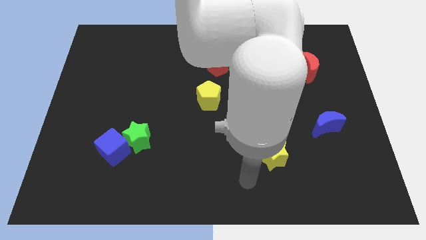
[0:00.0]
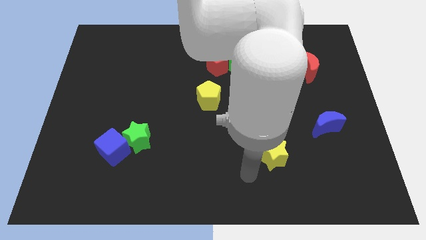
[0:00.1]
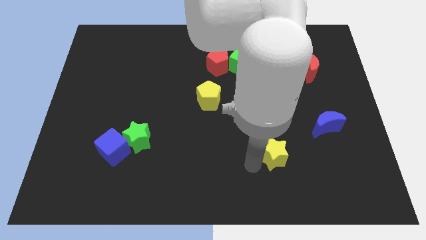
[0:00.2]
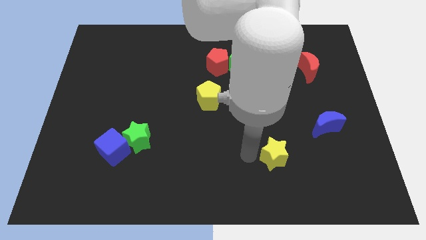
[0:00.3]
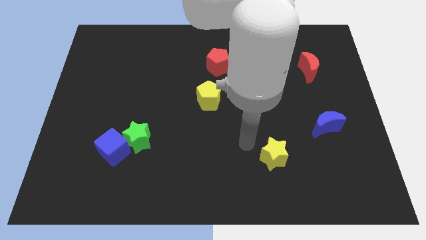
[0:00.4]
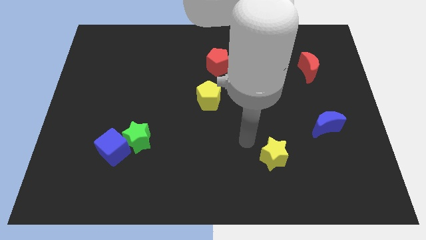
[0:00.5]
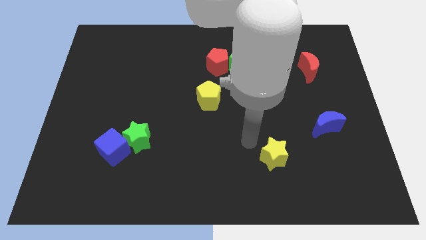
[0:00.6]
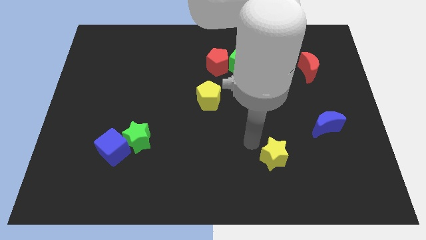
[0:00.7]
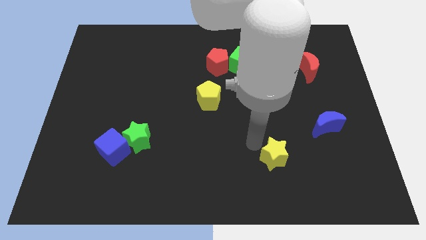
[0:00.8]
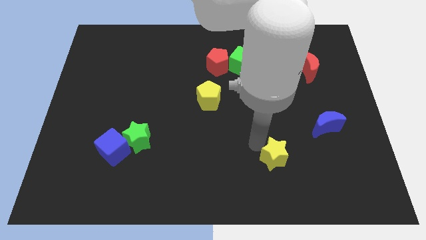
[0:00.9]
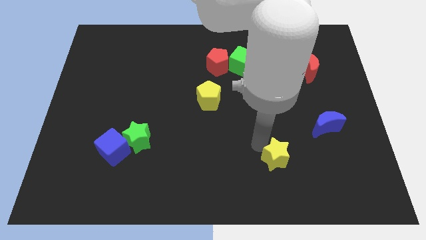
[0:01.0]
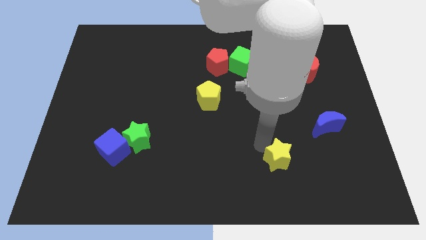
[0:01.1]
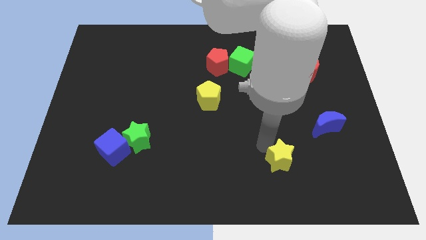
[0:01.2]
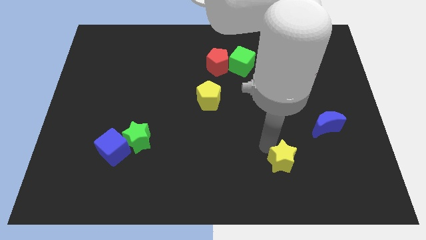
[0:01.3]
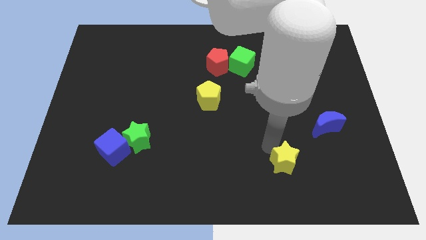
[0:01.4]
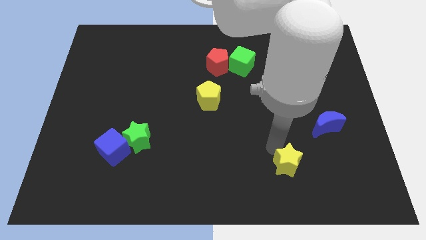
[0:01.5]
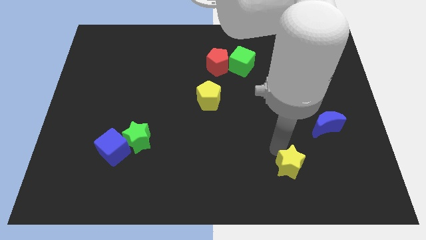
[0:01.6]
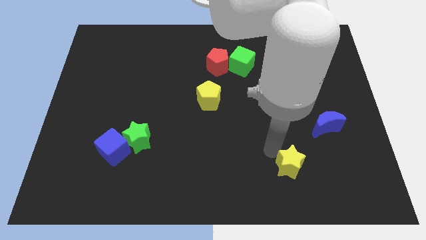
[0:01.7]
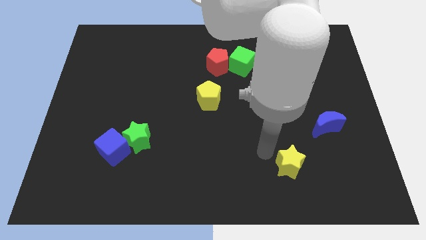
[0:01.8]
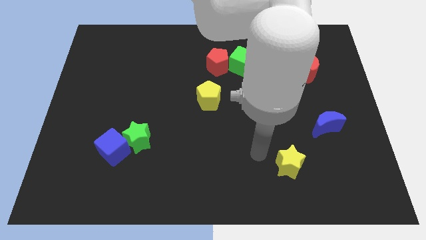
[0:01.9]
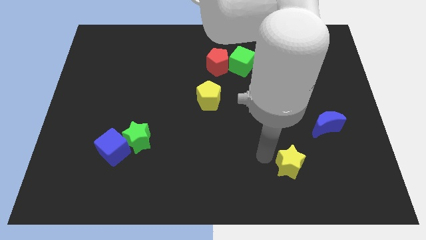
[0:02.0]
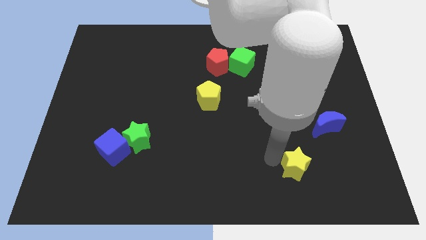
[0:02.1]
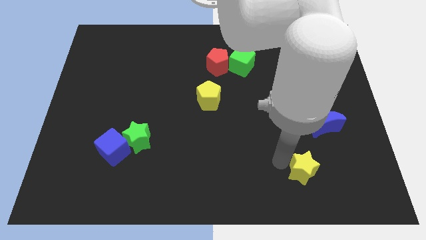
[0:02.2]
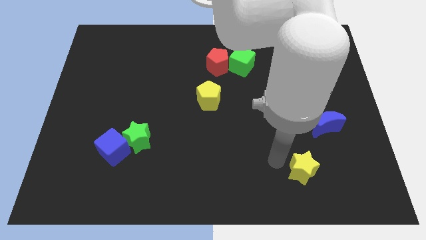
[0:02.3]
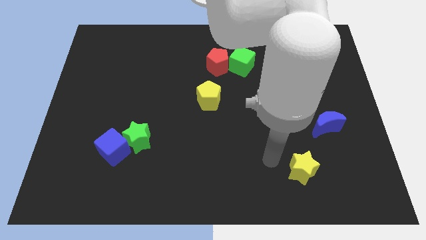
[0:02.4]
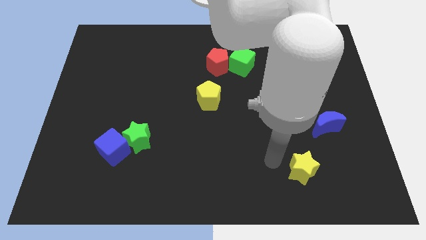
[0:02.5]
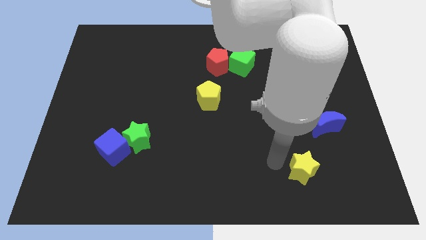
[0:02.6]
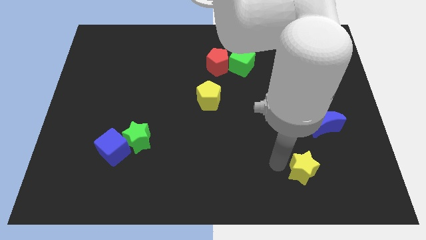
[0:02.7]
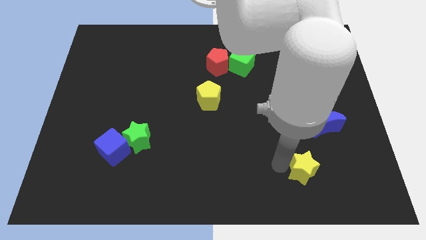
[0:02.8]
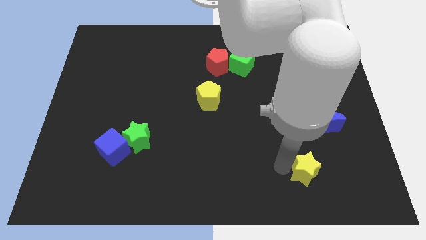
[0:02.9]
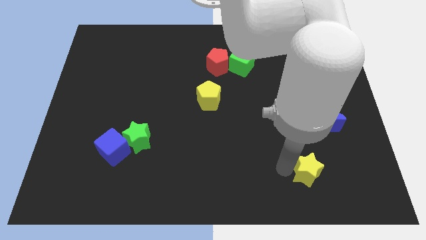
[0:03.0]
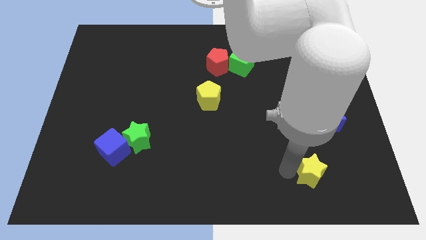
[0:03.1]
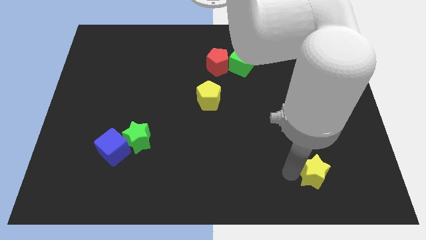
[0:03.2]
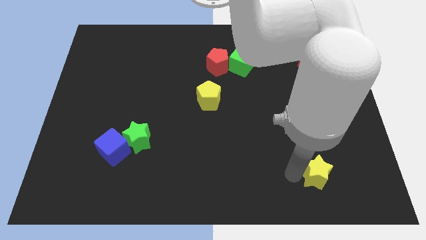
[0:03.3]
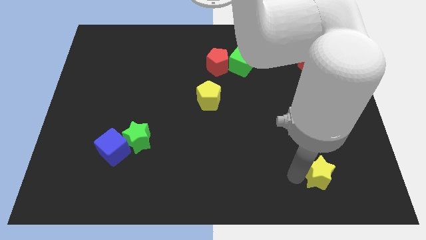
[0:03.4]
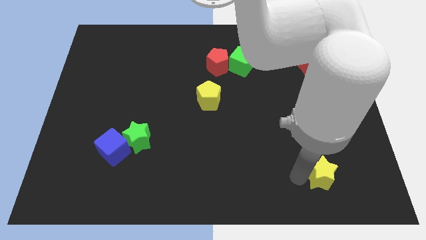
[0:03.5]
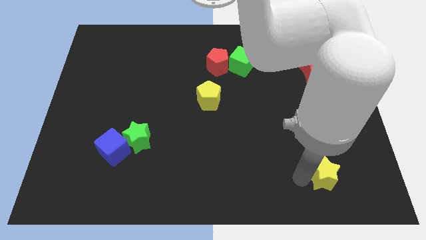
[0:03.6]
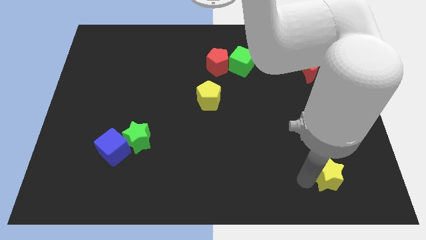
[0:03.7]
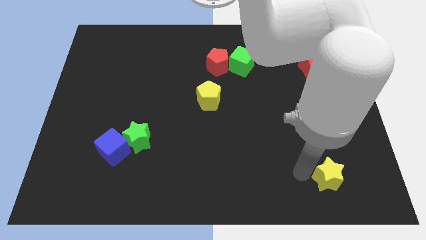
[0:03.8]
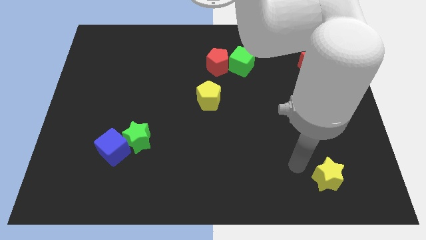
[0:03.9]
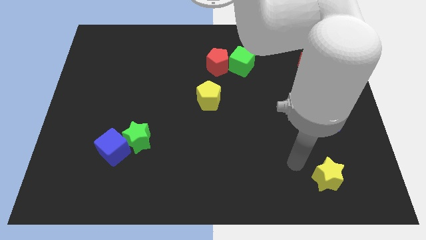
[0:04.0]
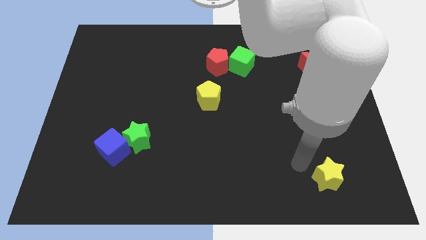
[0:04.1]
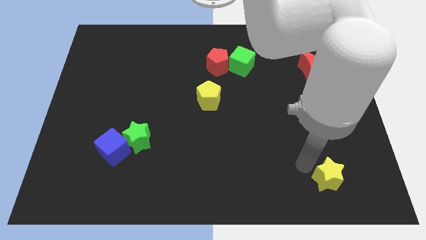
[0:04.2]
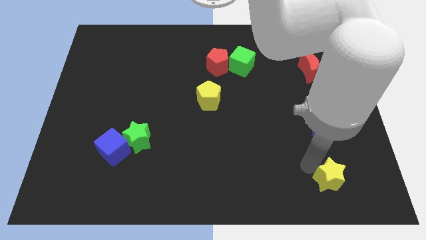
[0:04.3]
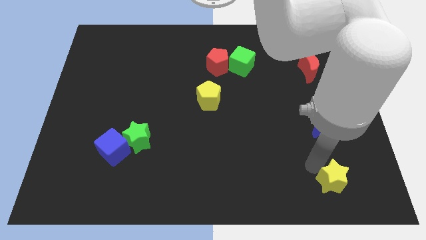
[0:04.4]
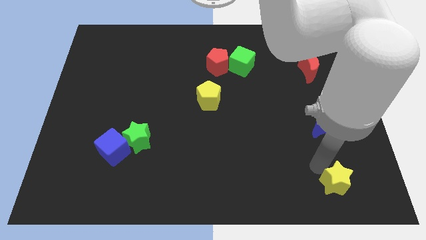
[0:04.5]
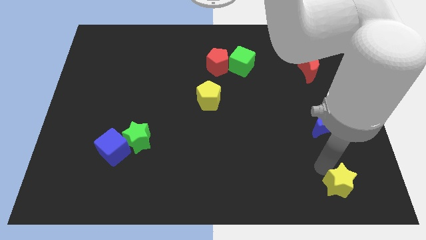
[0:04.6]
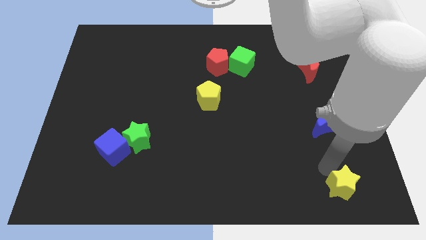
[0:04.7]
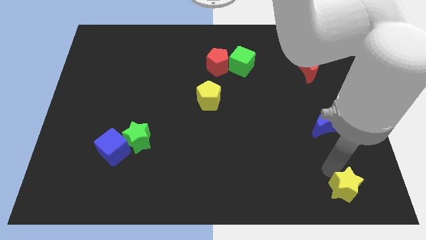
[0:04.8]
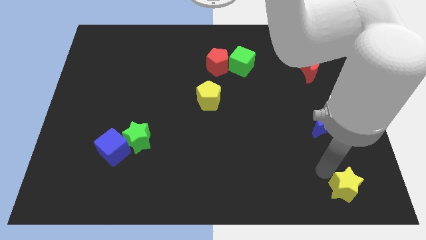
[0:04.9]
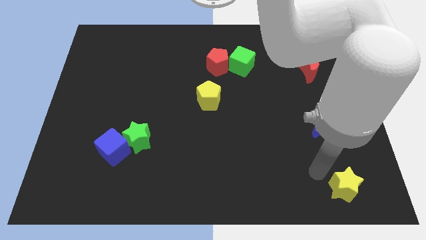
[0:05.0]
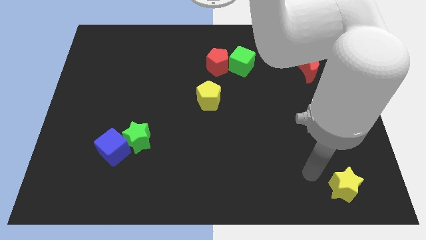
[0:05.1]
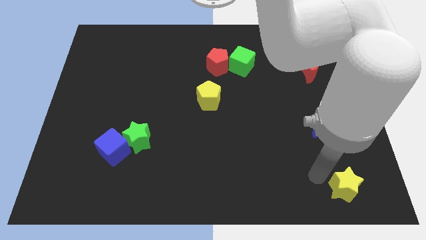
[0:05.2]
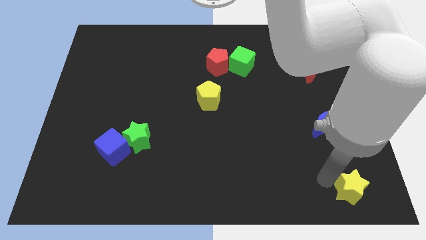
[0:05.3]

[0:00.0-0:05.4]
move the yellow star to the lower right corner

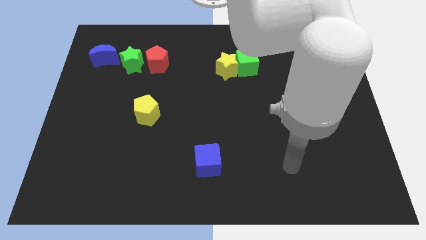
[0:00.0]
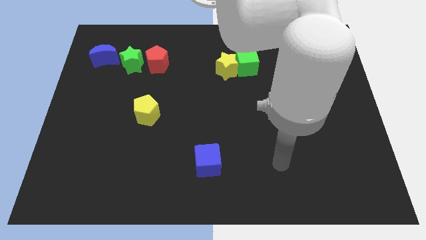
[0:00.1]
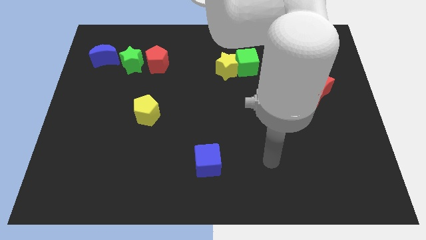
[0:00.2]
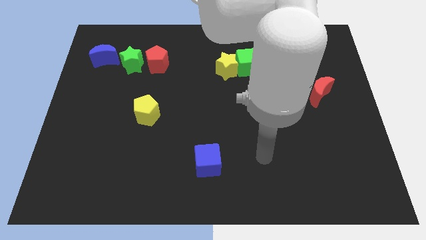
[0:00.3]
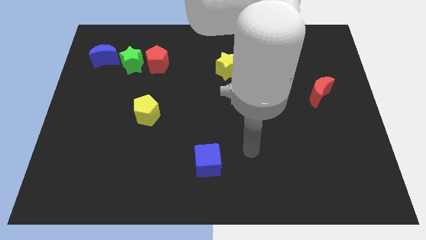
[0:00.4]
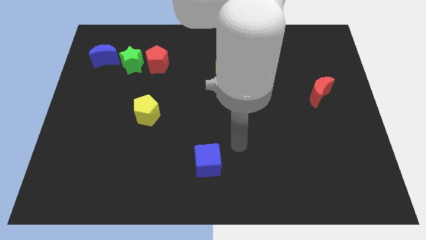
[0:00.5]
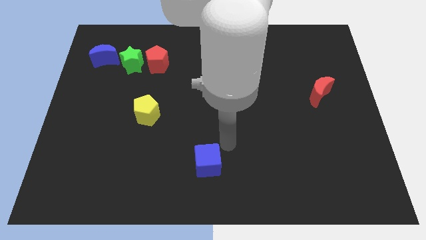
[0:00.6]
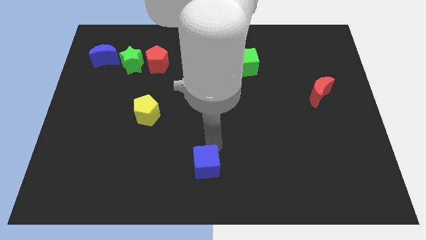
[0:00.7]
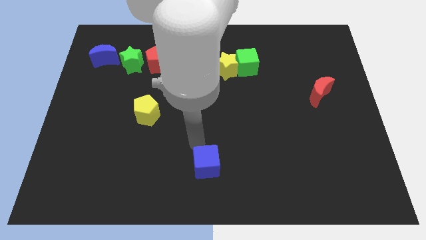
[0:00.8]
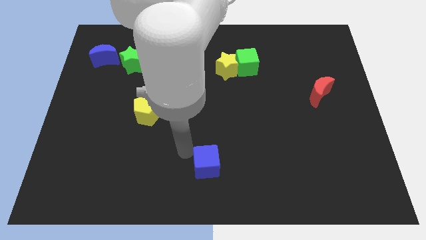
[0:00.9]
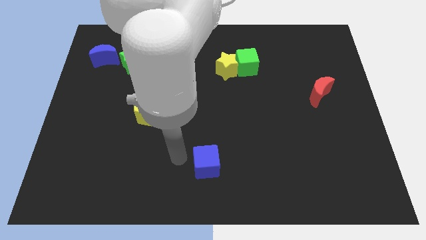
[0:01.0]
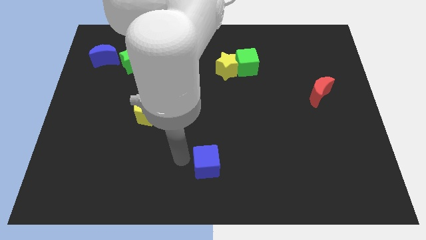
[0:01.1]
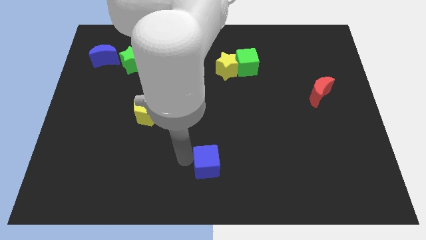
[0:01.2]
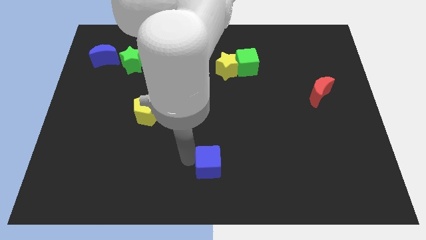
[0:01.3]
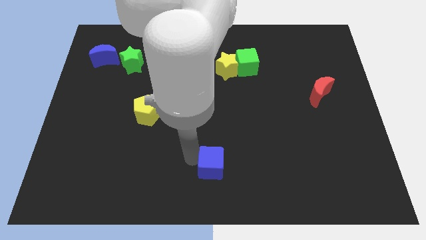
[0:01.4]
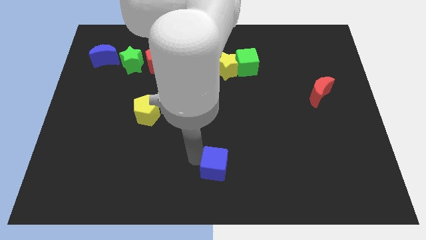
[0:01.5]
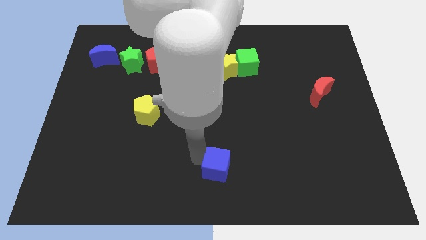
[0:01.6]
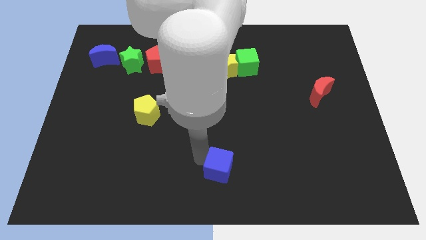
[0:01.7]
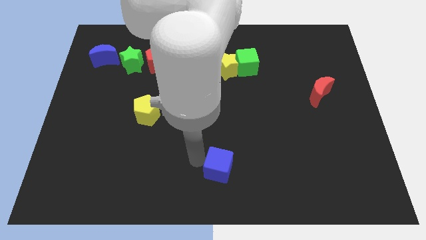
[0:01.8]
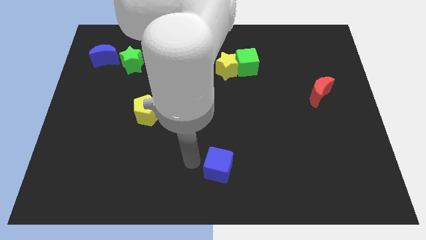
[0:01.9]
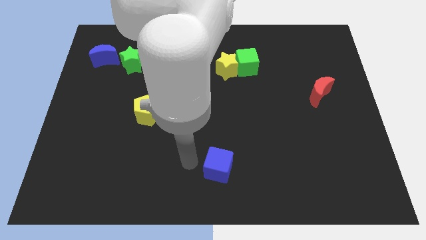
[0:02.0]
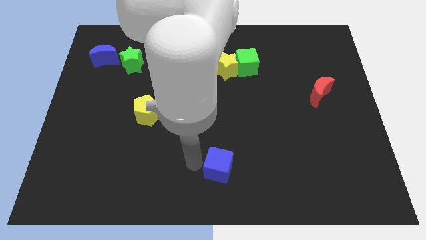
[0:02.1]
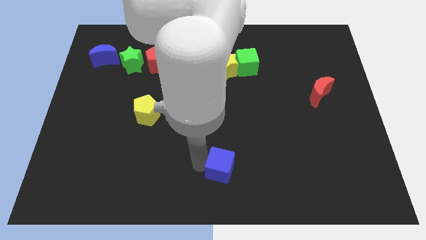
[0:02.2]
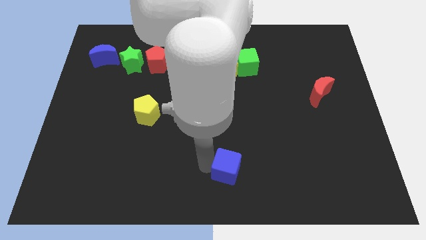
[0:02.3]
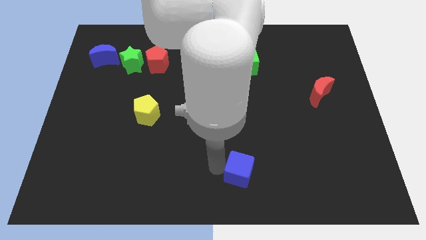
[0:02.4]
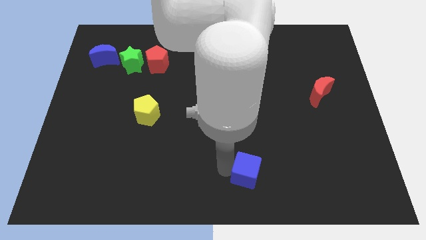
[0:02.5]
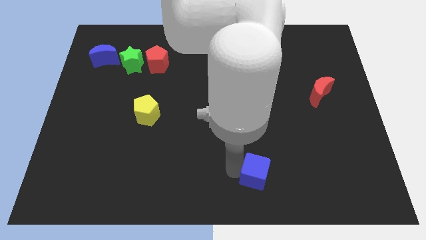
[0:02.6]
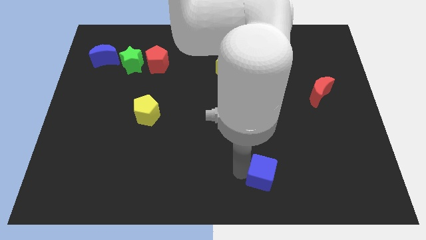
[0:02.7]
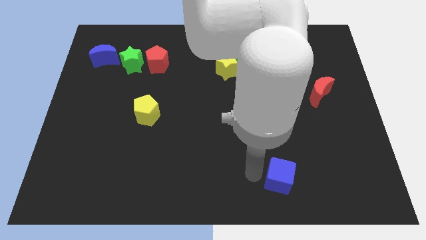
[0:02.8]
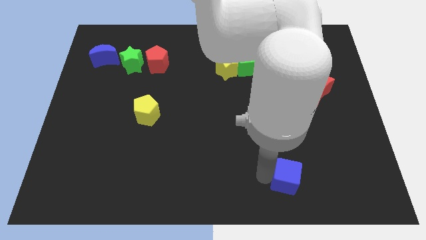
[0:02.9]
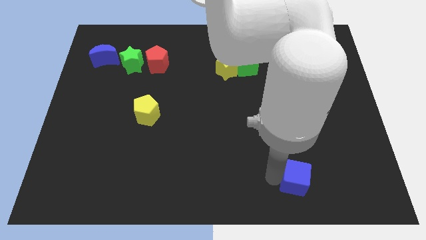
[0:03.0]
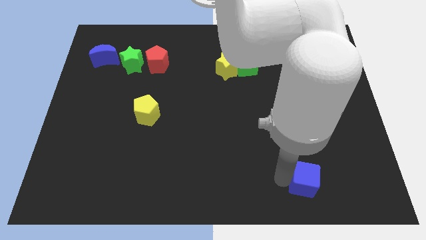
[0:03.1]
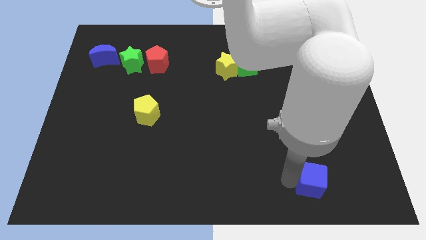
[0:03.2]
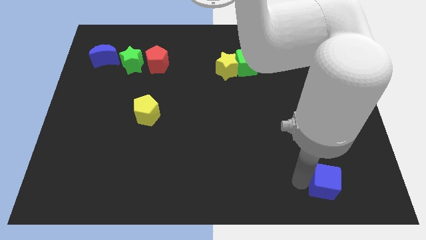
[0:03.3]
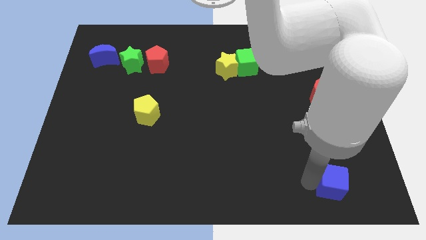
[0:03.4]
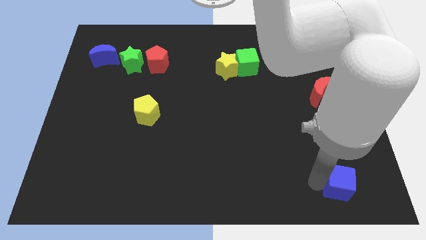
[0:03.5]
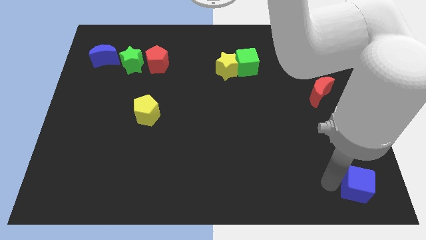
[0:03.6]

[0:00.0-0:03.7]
push the blue cube to the lower right corner
